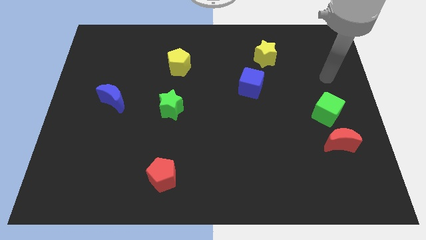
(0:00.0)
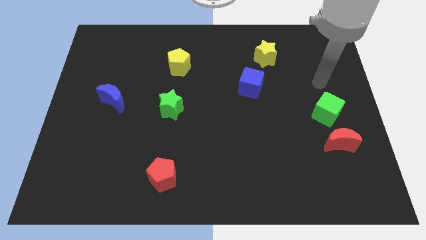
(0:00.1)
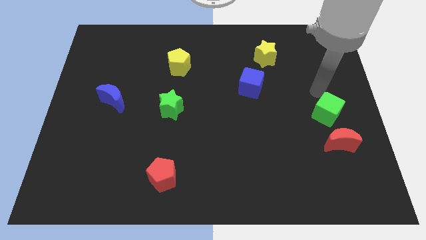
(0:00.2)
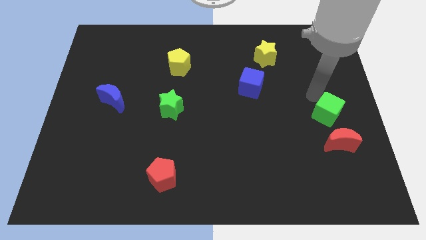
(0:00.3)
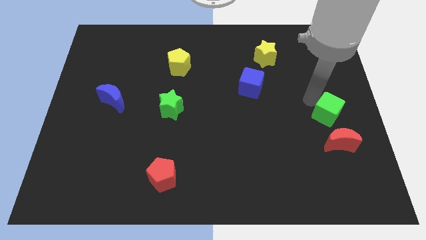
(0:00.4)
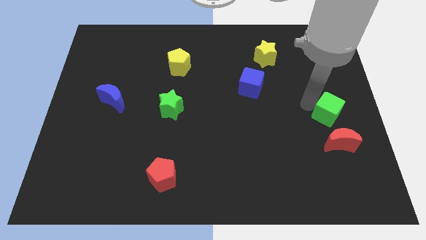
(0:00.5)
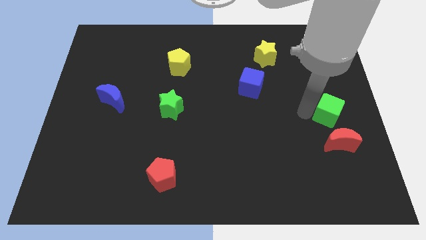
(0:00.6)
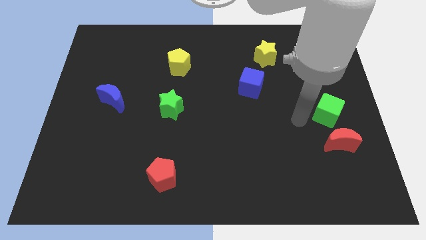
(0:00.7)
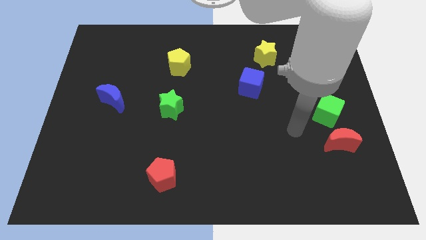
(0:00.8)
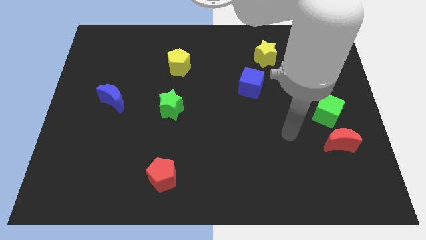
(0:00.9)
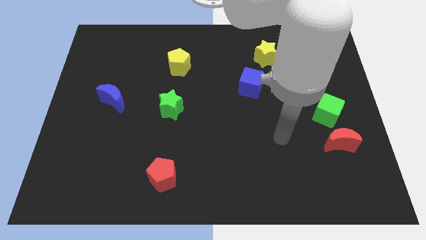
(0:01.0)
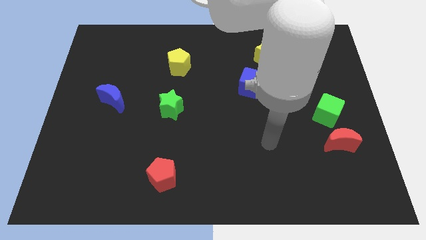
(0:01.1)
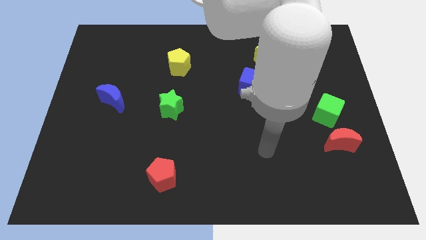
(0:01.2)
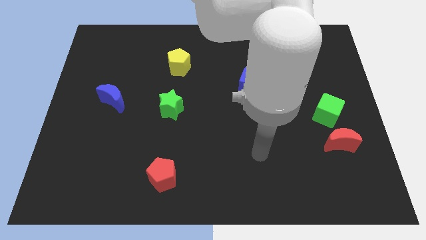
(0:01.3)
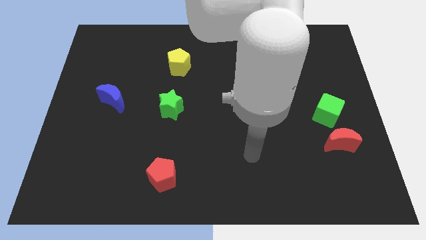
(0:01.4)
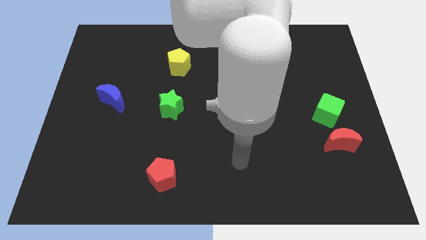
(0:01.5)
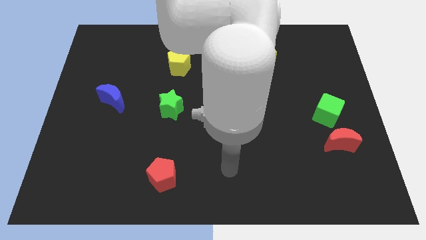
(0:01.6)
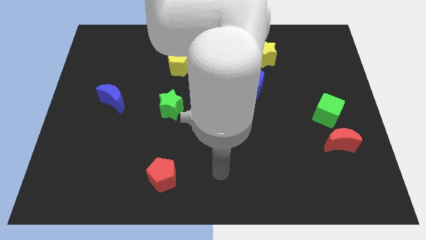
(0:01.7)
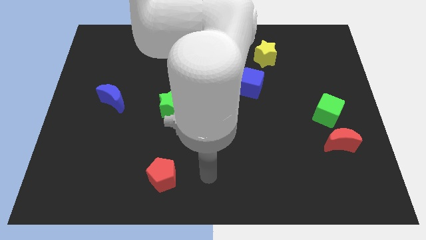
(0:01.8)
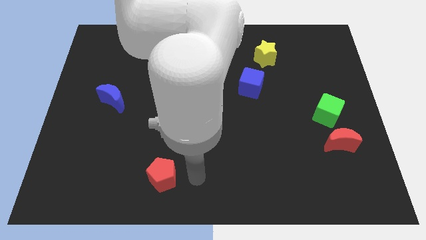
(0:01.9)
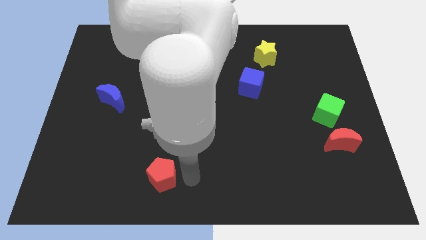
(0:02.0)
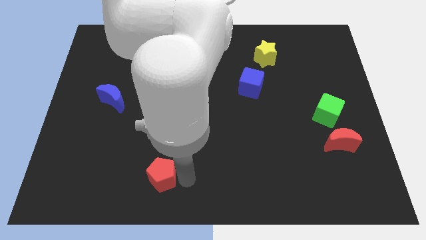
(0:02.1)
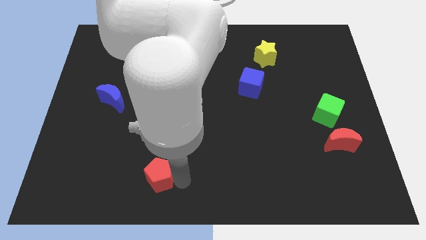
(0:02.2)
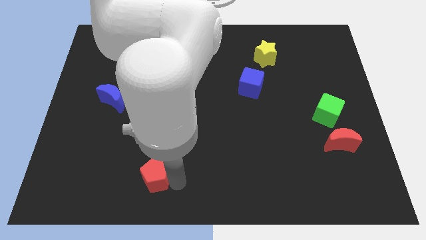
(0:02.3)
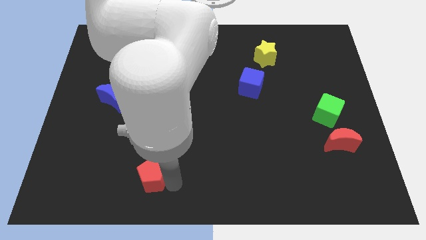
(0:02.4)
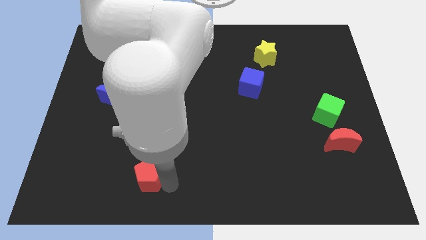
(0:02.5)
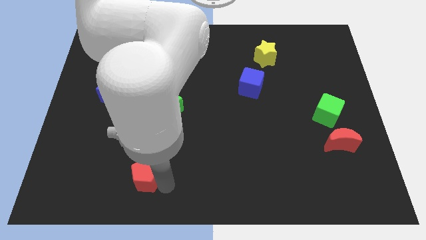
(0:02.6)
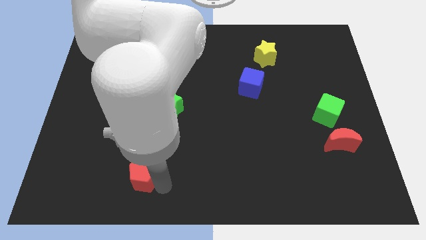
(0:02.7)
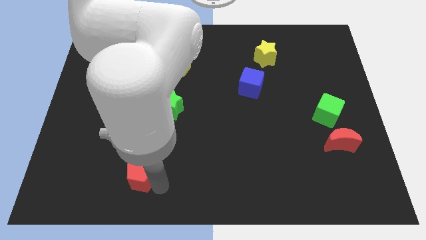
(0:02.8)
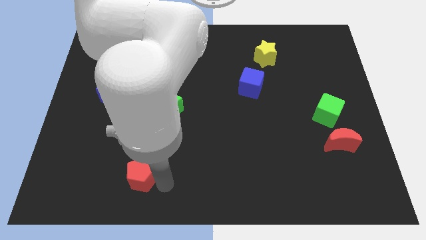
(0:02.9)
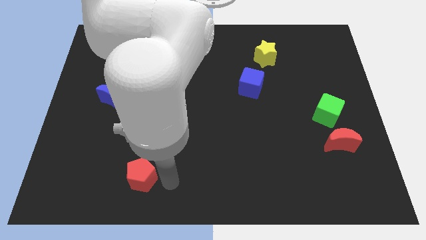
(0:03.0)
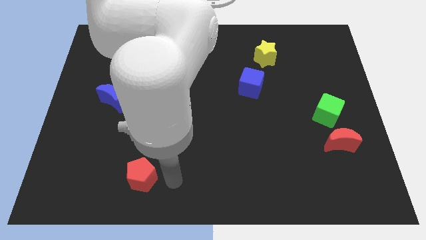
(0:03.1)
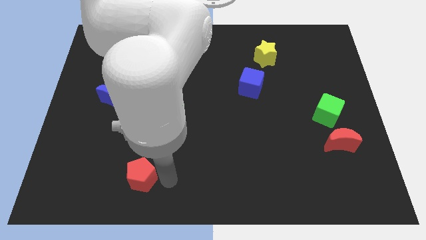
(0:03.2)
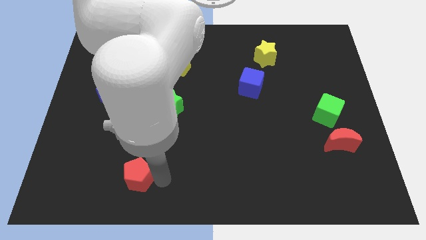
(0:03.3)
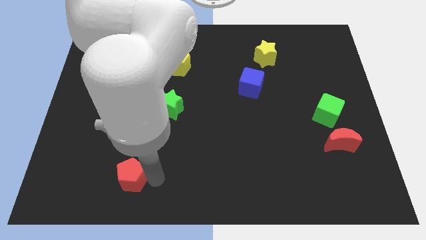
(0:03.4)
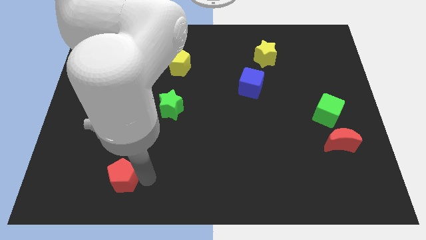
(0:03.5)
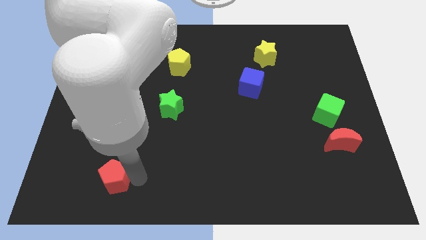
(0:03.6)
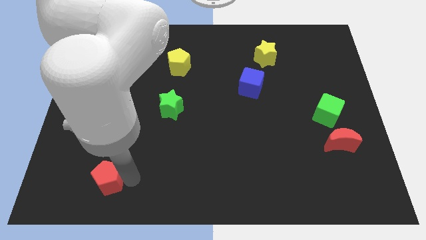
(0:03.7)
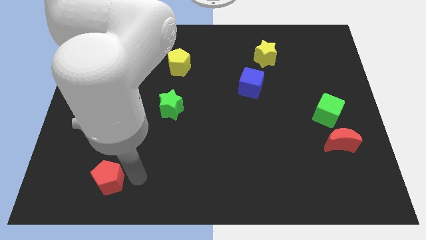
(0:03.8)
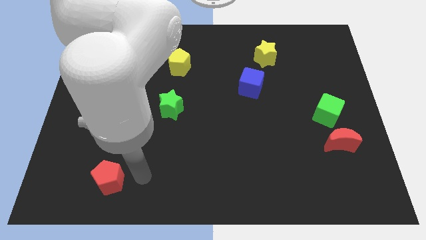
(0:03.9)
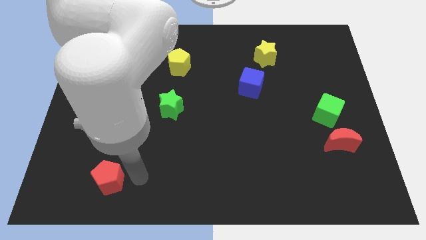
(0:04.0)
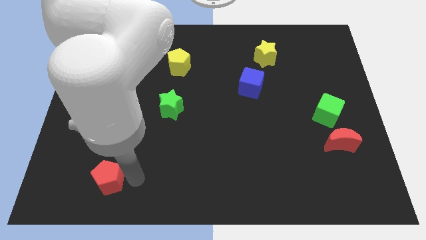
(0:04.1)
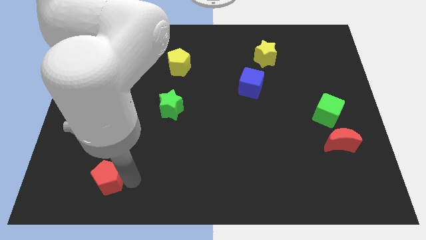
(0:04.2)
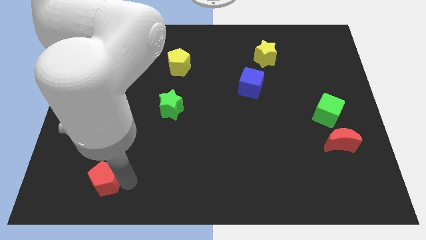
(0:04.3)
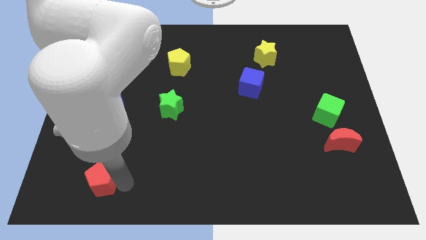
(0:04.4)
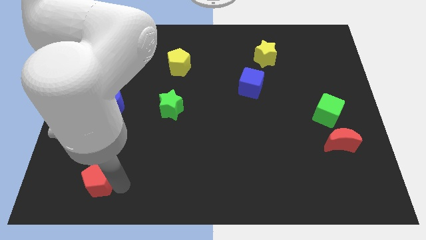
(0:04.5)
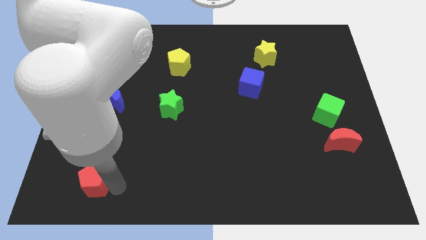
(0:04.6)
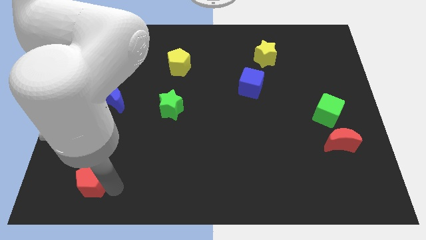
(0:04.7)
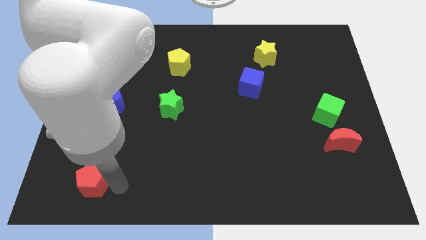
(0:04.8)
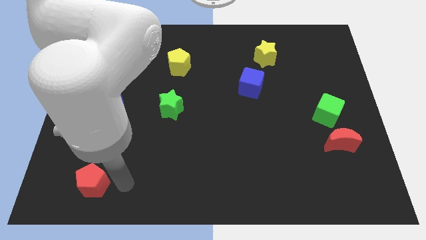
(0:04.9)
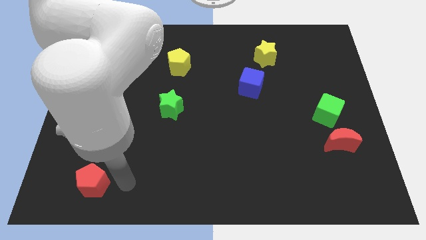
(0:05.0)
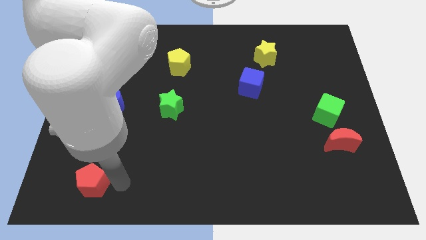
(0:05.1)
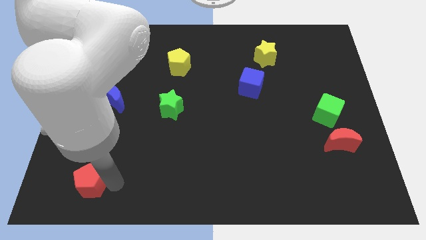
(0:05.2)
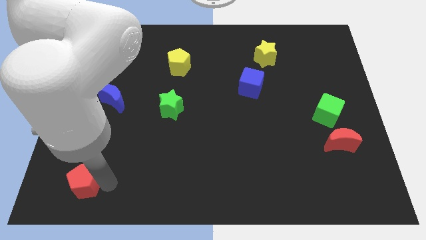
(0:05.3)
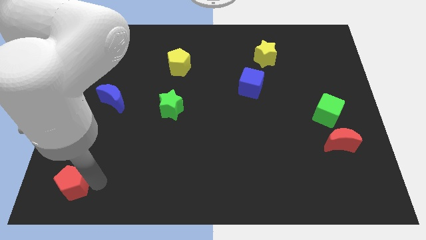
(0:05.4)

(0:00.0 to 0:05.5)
push the red pentagon to the bottom left of the board
